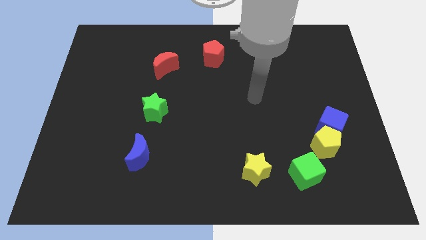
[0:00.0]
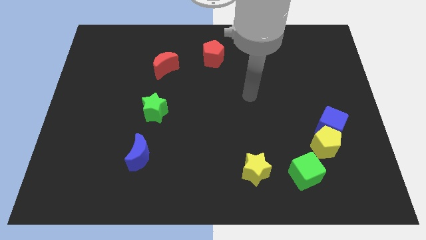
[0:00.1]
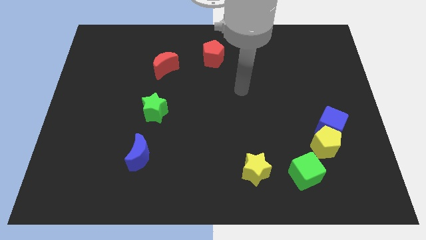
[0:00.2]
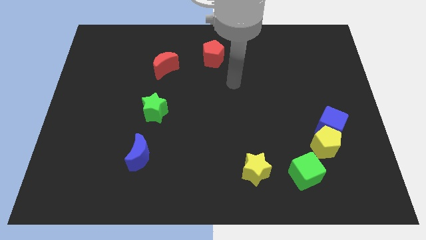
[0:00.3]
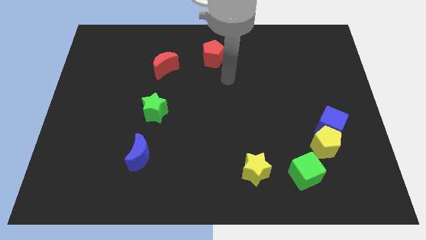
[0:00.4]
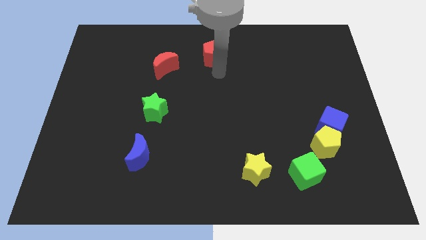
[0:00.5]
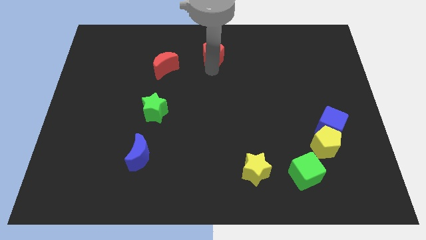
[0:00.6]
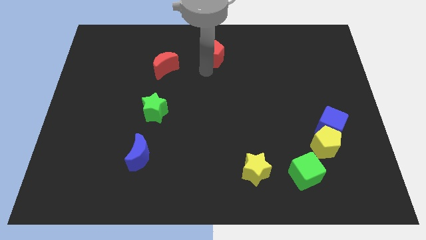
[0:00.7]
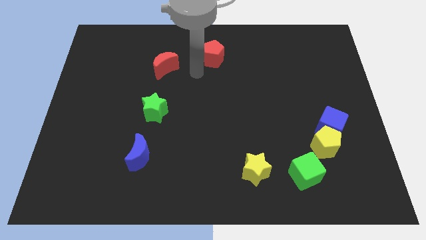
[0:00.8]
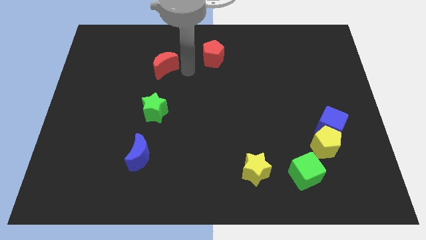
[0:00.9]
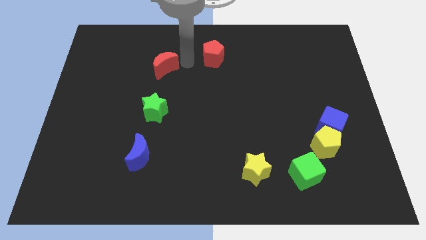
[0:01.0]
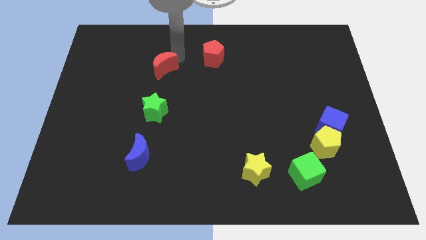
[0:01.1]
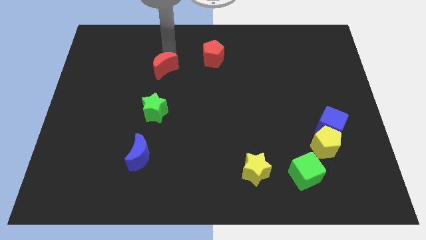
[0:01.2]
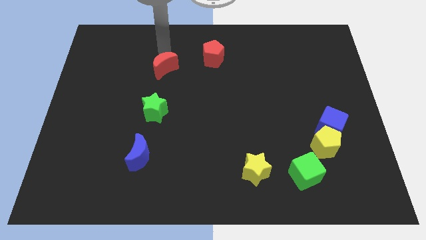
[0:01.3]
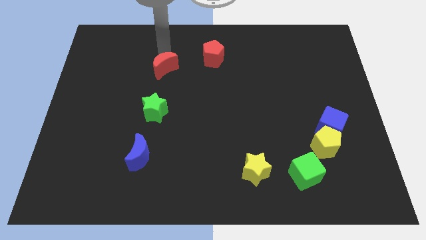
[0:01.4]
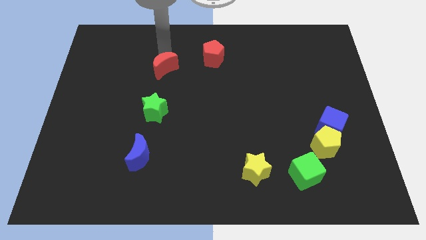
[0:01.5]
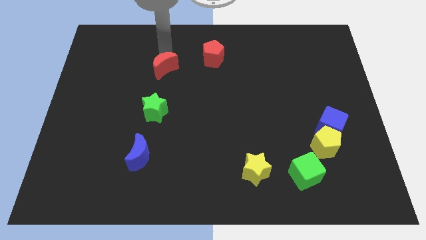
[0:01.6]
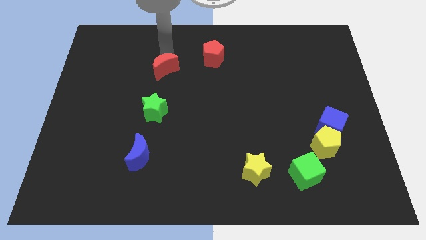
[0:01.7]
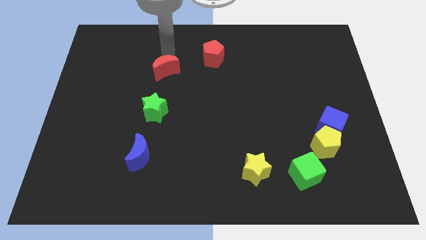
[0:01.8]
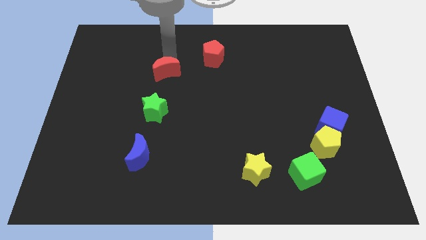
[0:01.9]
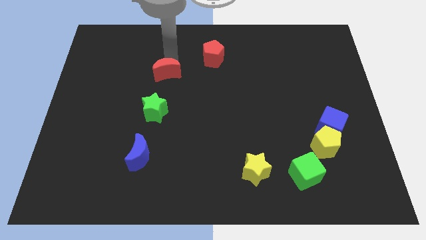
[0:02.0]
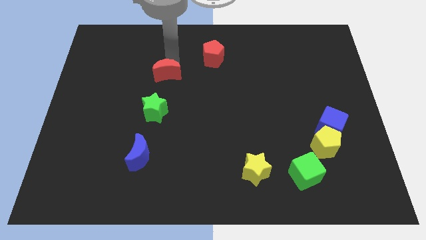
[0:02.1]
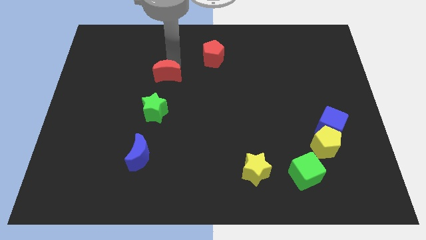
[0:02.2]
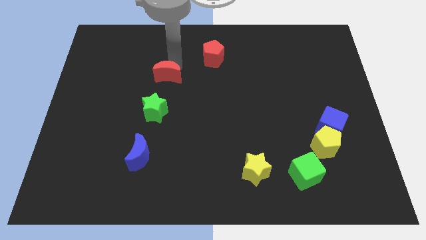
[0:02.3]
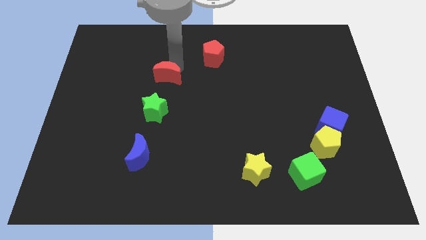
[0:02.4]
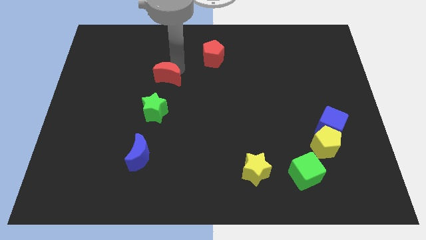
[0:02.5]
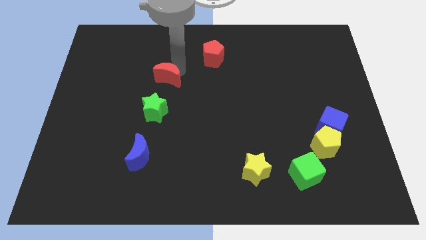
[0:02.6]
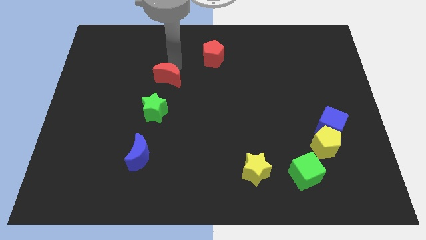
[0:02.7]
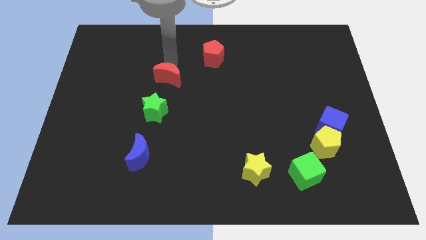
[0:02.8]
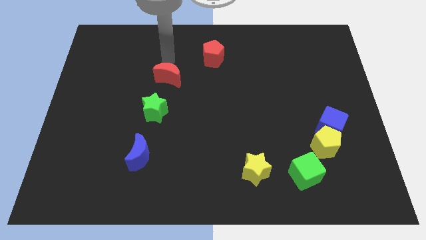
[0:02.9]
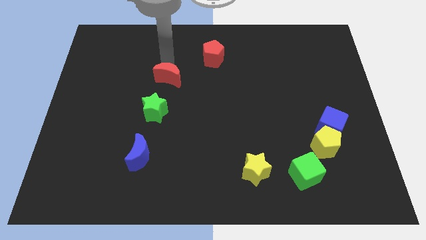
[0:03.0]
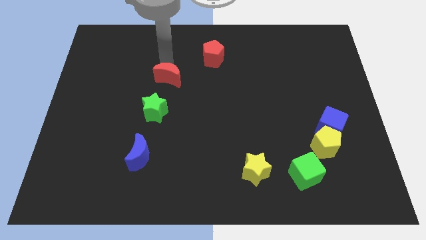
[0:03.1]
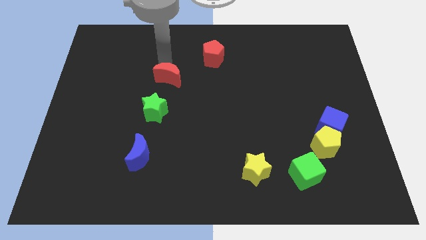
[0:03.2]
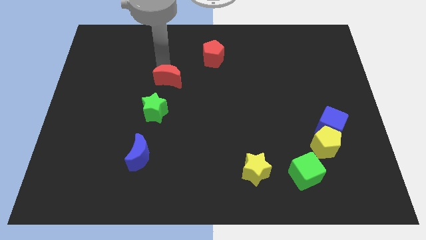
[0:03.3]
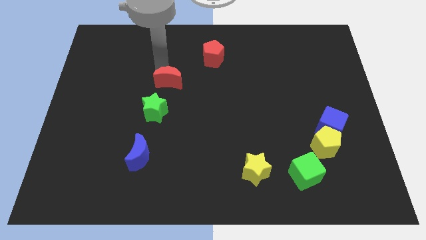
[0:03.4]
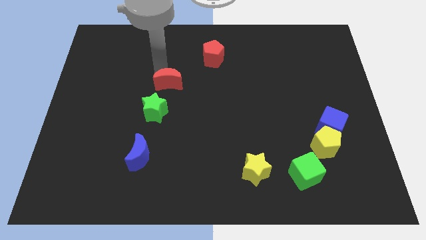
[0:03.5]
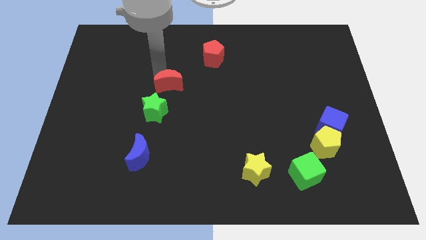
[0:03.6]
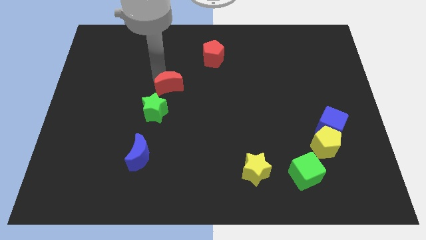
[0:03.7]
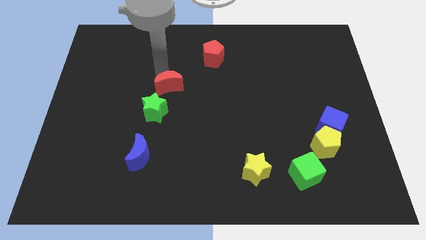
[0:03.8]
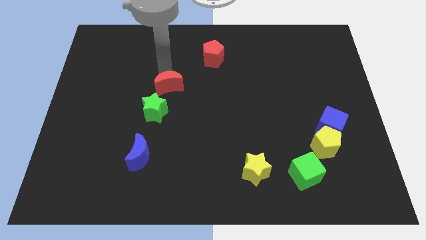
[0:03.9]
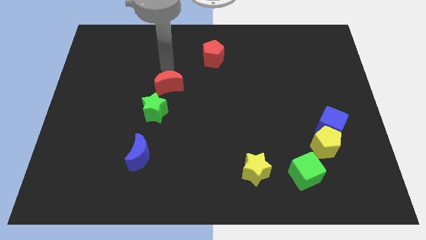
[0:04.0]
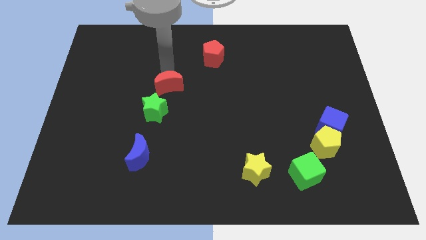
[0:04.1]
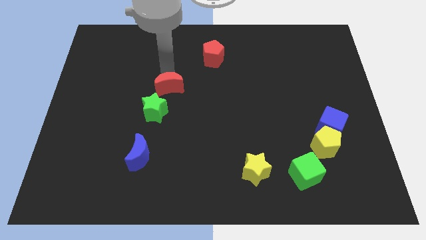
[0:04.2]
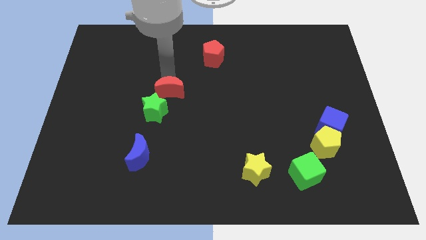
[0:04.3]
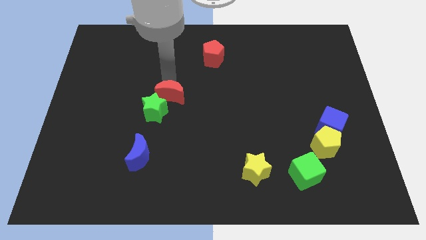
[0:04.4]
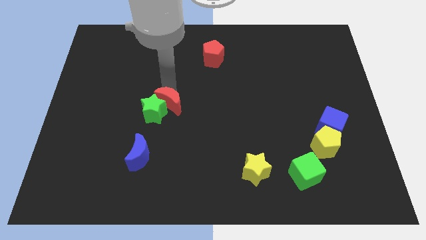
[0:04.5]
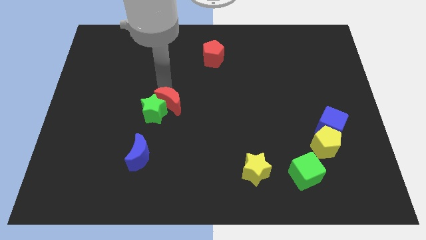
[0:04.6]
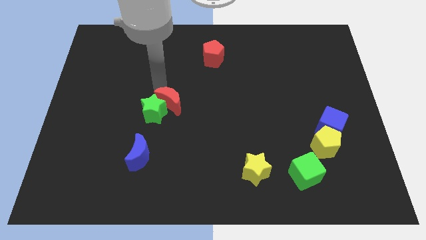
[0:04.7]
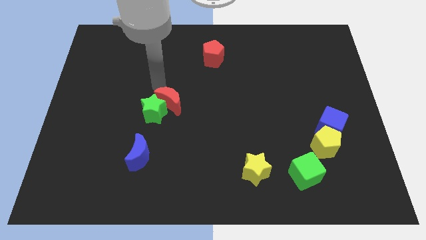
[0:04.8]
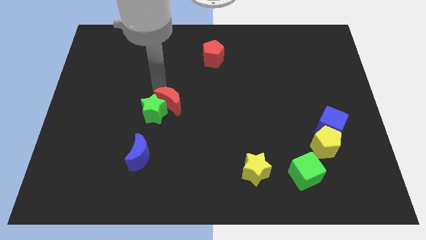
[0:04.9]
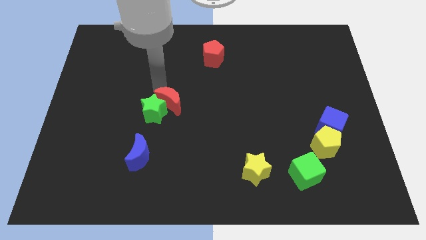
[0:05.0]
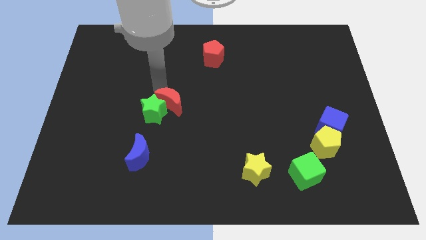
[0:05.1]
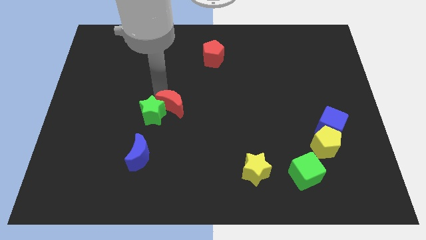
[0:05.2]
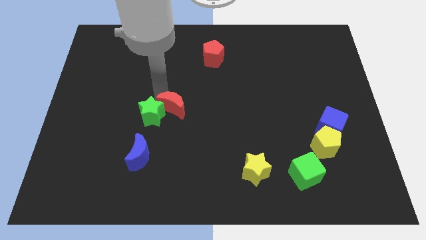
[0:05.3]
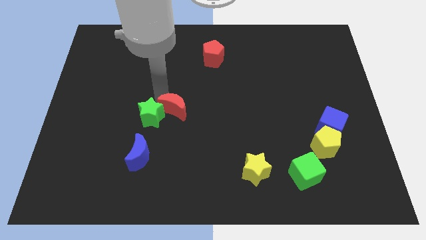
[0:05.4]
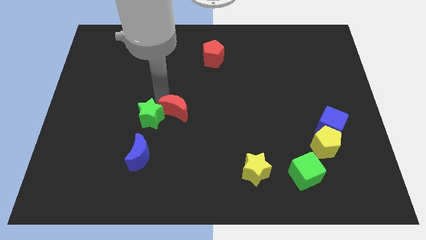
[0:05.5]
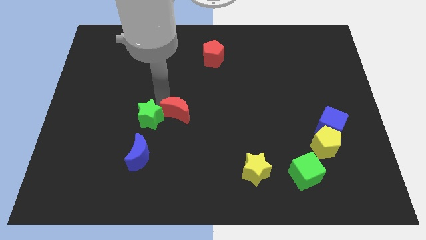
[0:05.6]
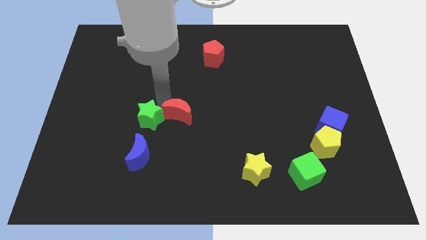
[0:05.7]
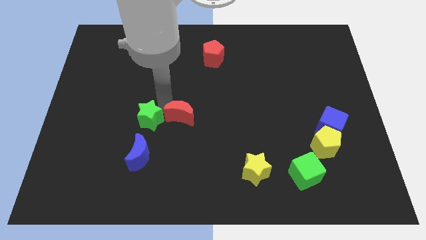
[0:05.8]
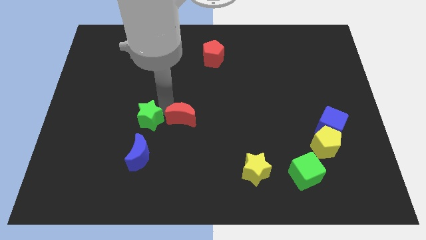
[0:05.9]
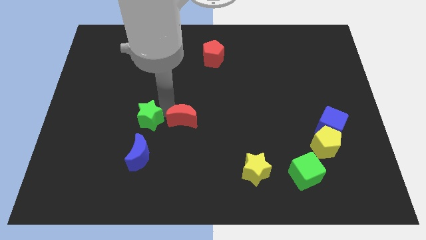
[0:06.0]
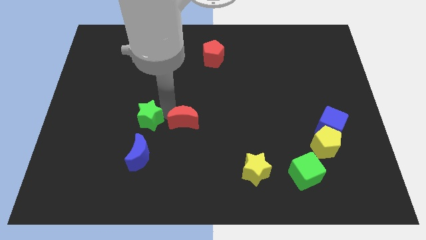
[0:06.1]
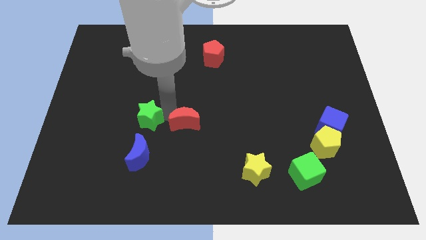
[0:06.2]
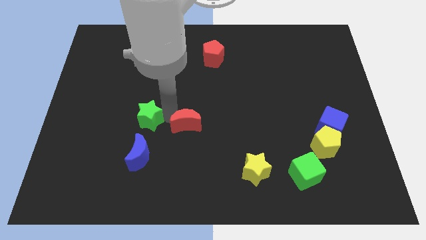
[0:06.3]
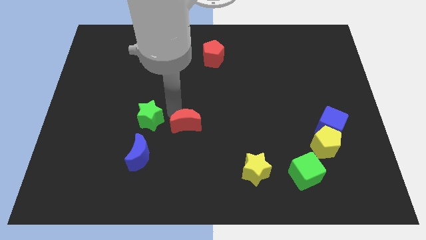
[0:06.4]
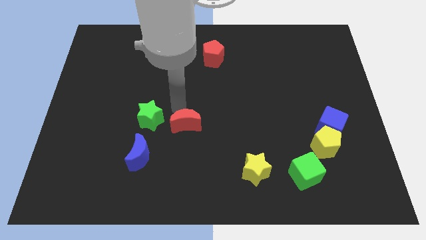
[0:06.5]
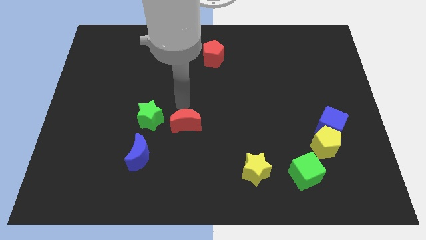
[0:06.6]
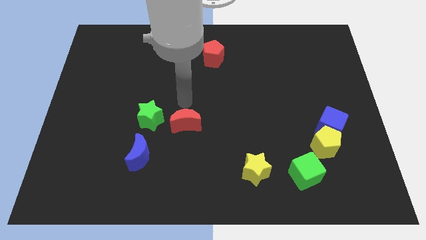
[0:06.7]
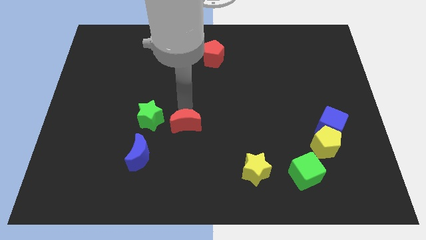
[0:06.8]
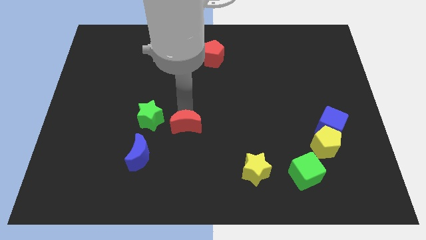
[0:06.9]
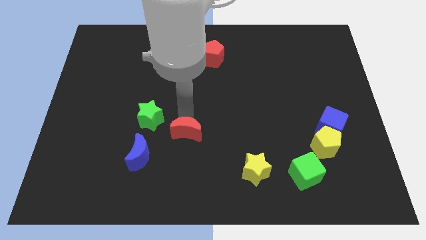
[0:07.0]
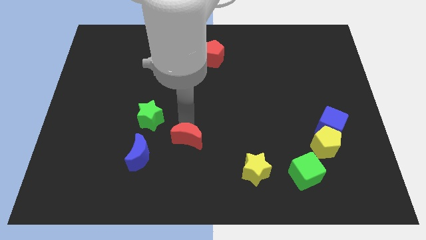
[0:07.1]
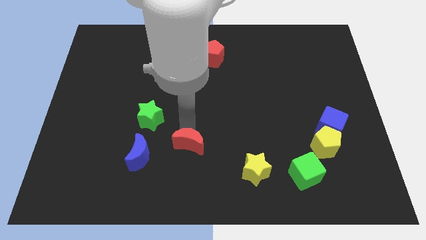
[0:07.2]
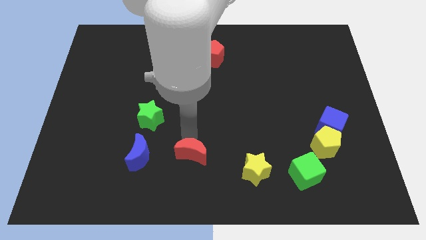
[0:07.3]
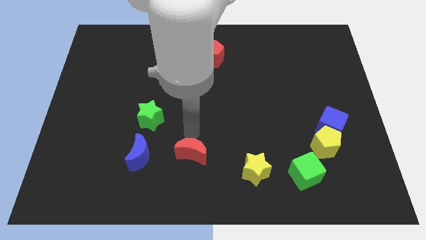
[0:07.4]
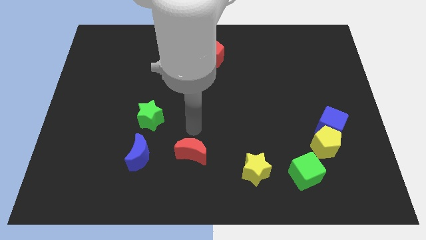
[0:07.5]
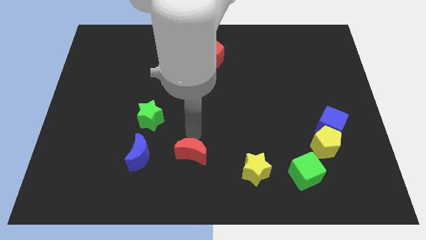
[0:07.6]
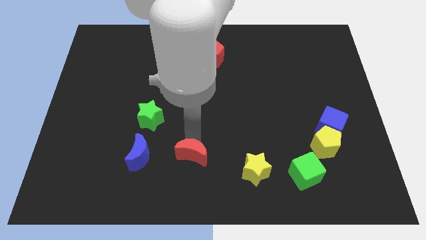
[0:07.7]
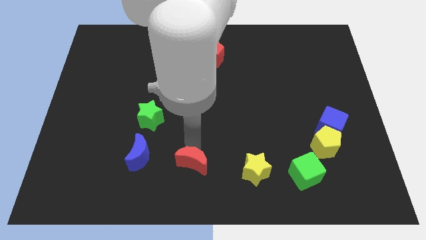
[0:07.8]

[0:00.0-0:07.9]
push the red moon to the bottom
